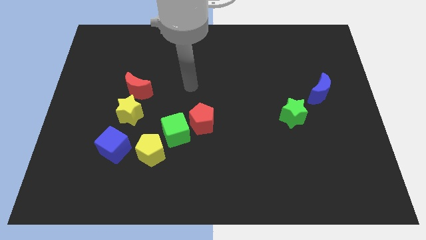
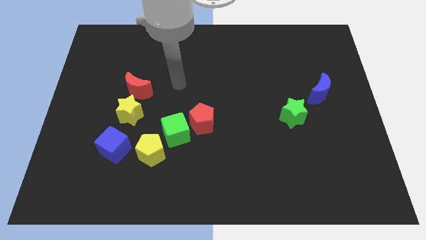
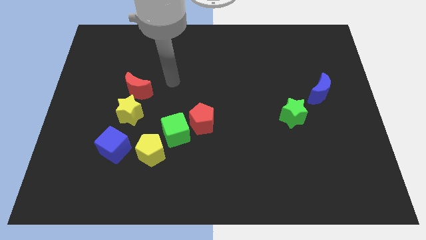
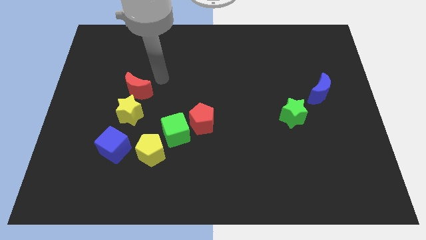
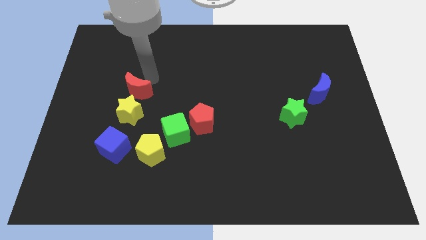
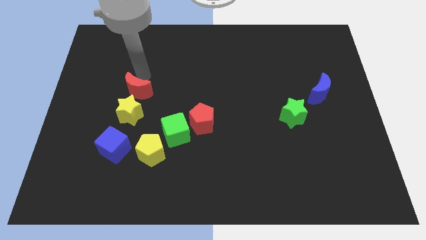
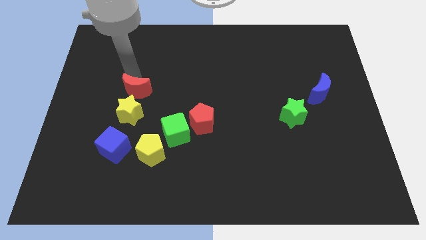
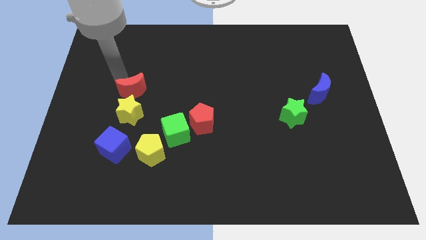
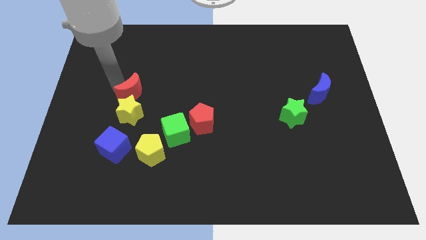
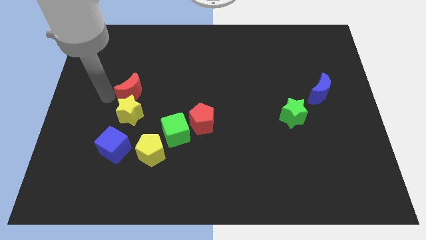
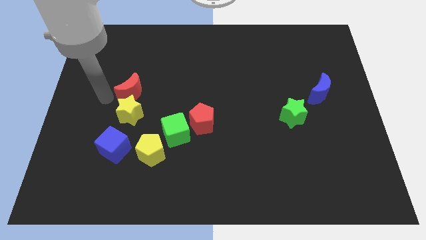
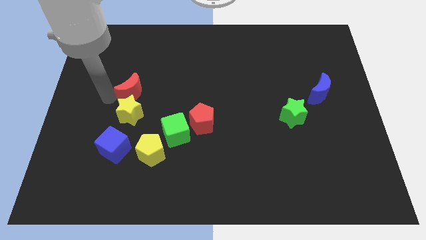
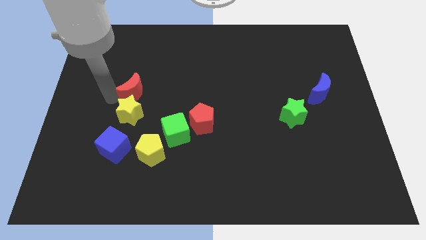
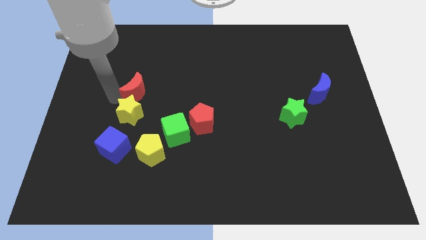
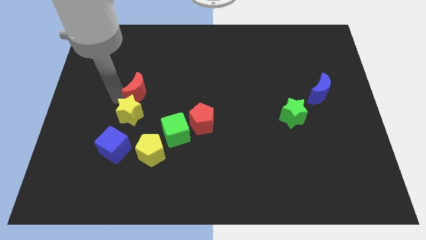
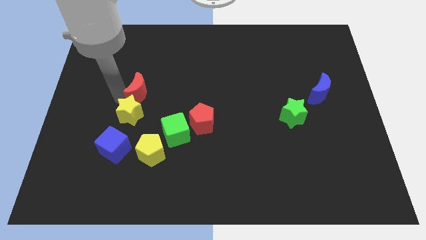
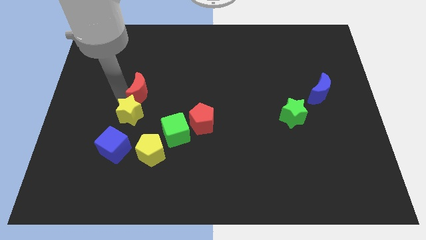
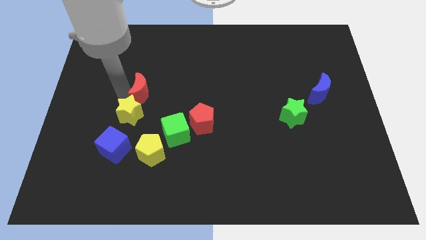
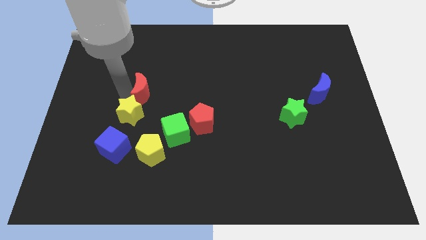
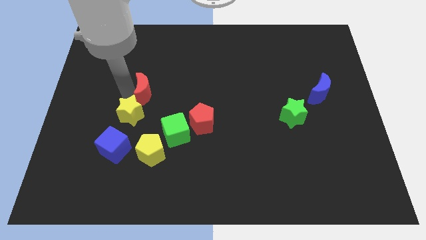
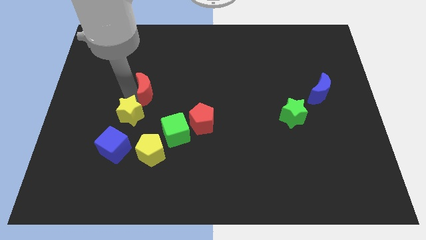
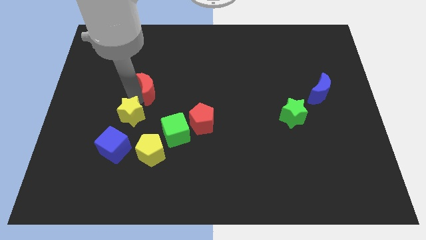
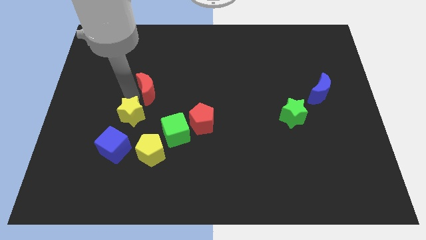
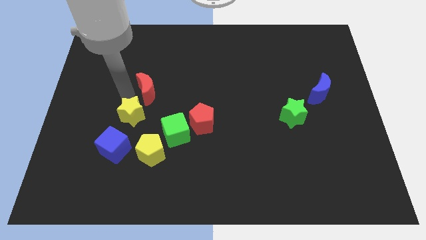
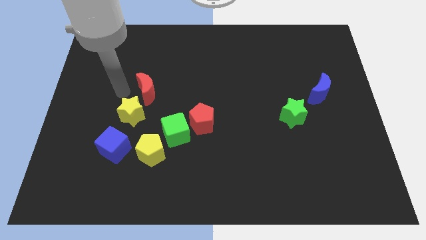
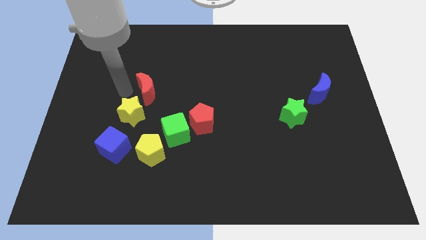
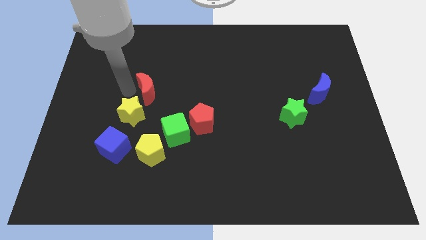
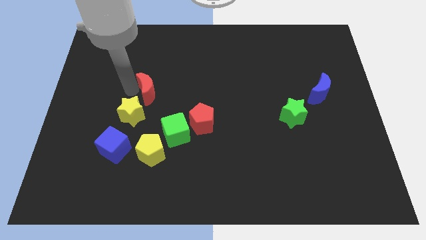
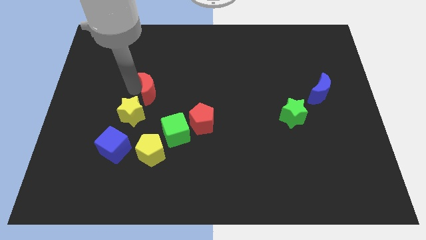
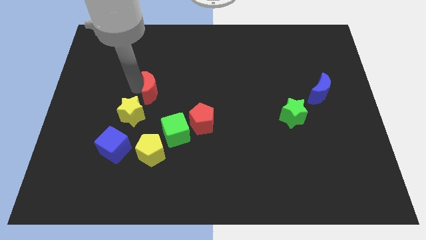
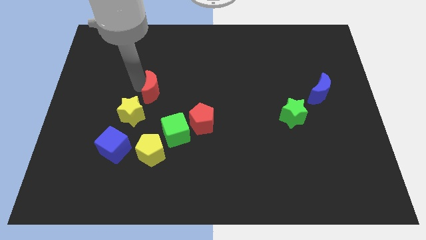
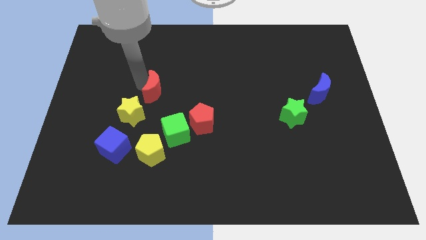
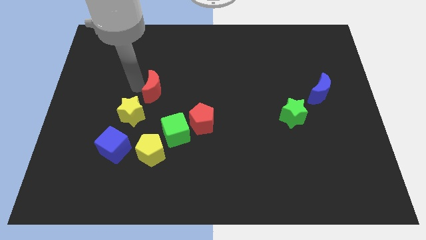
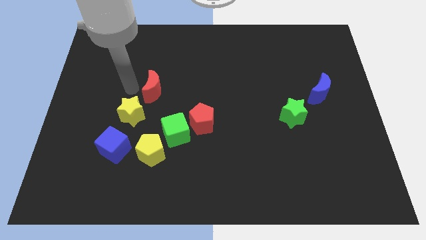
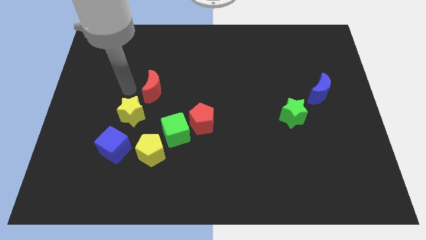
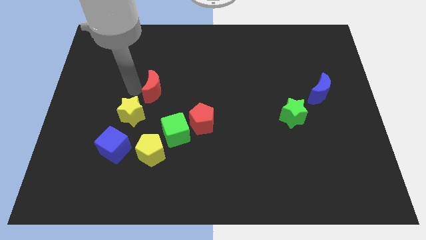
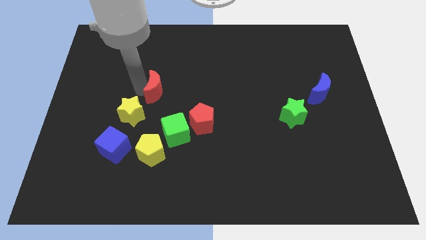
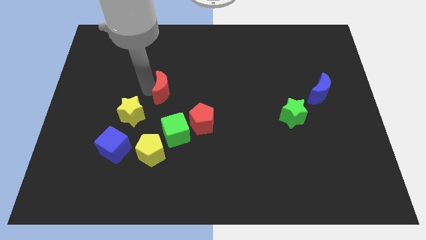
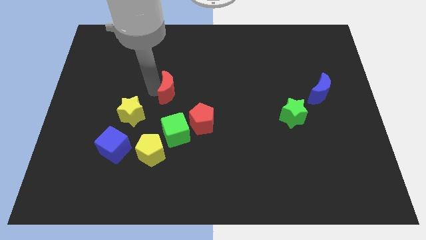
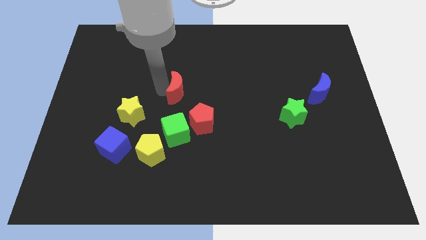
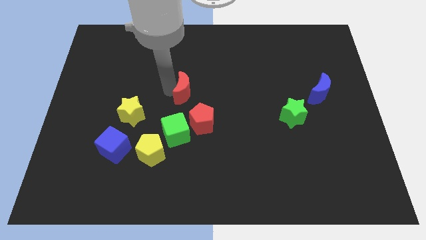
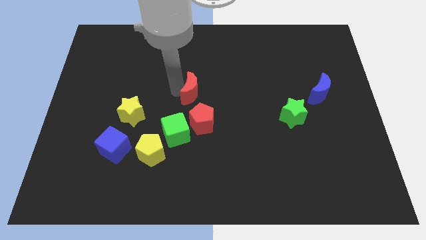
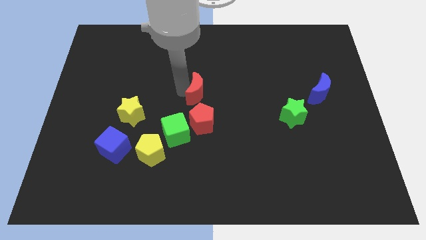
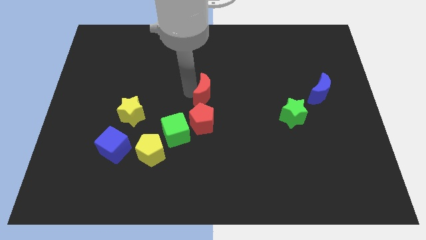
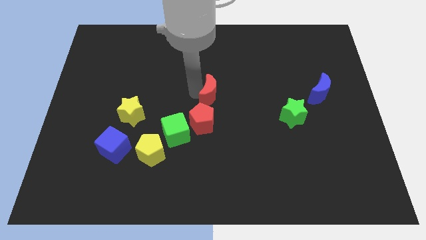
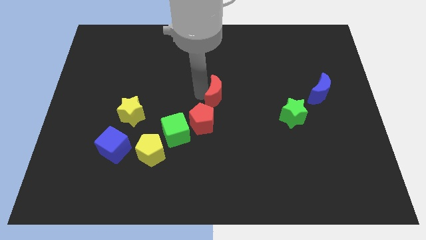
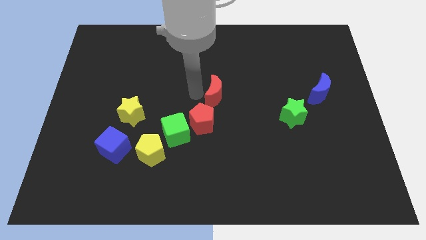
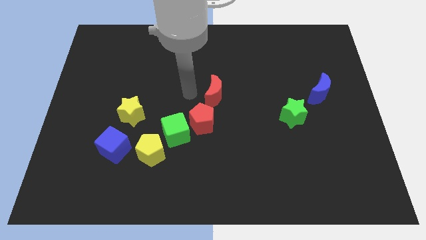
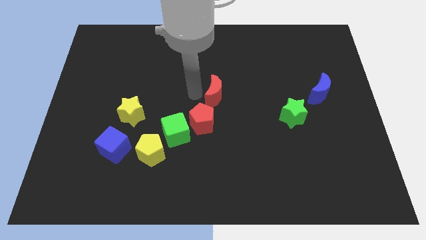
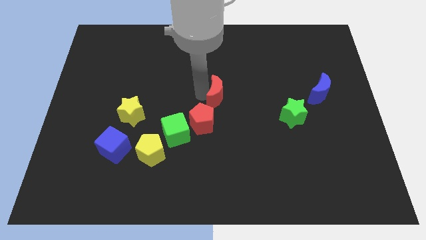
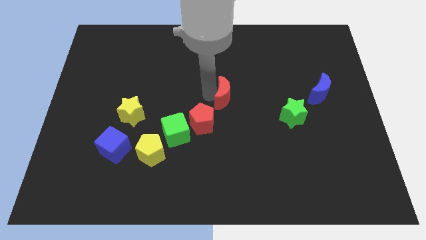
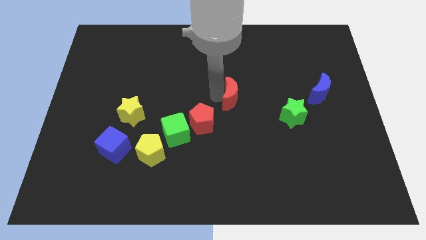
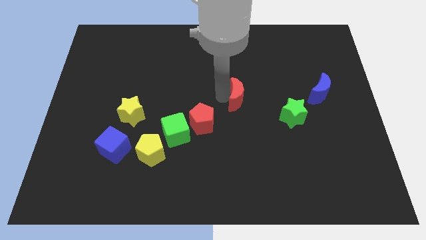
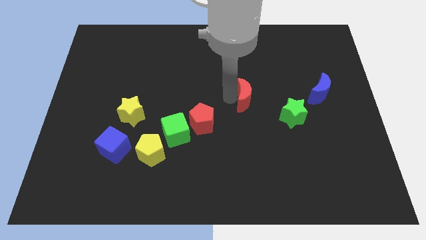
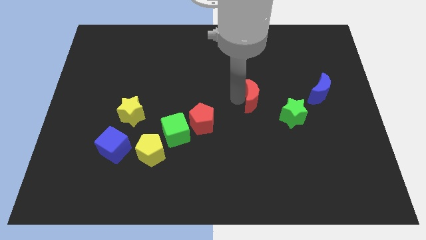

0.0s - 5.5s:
move the red moon to the top left side of the green star

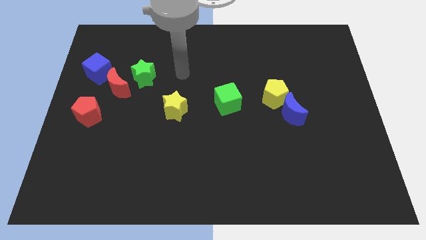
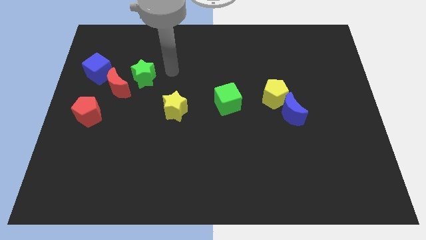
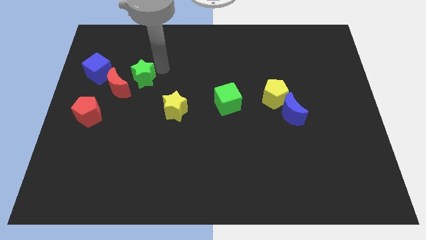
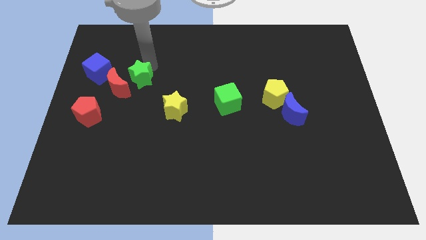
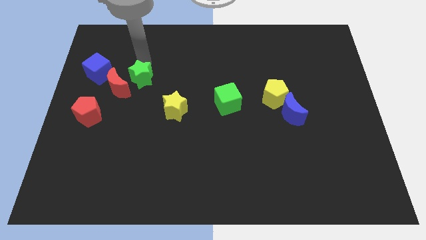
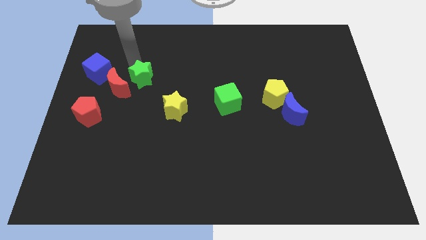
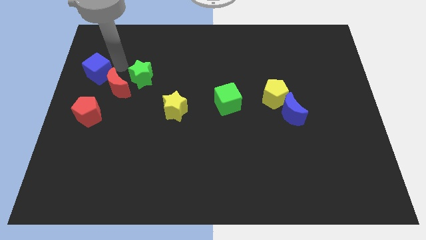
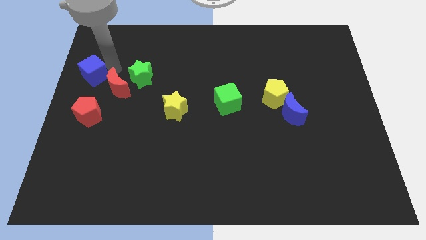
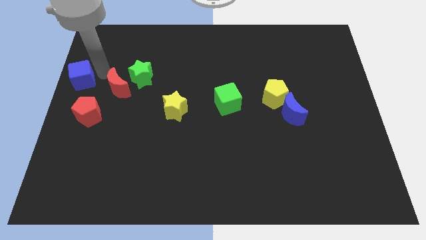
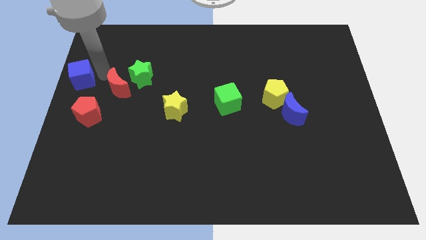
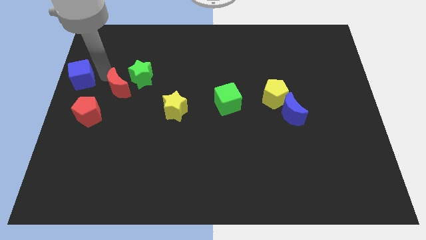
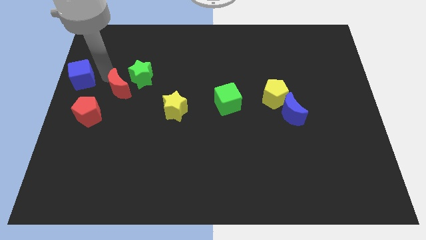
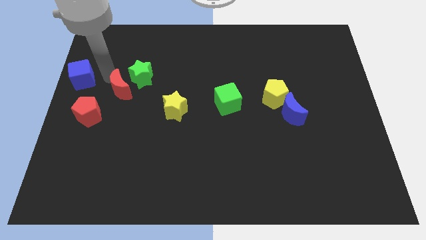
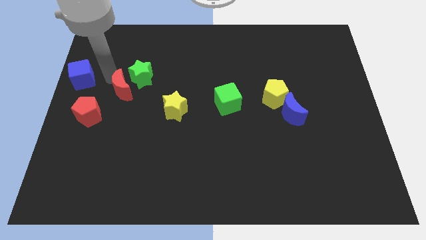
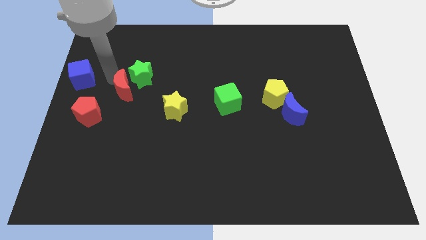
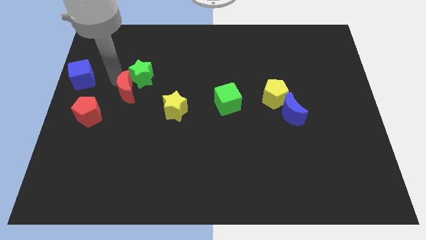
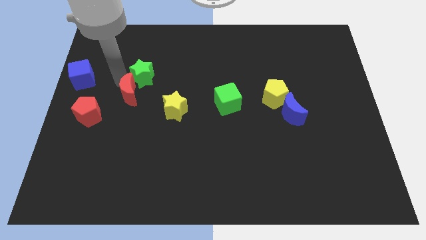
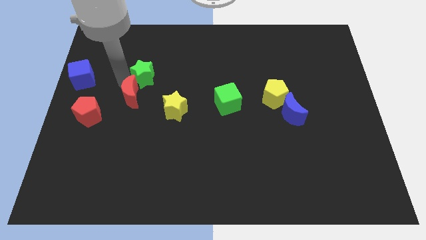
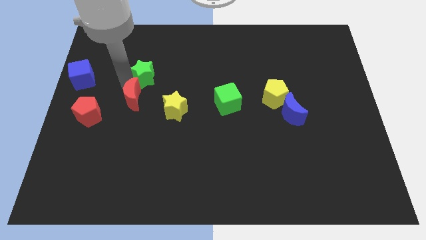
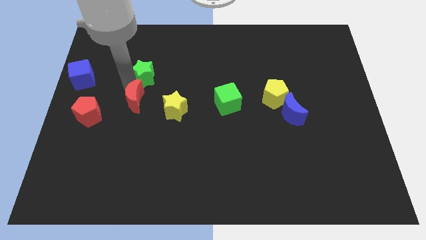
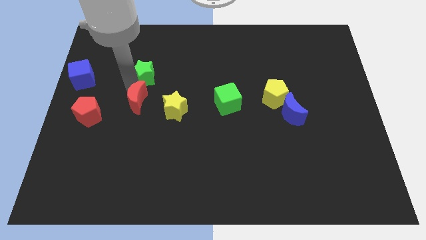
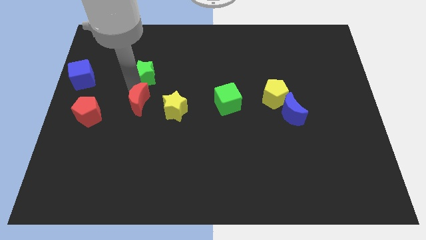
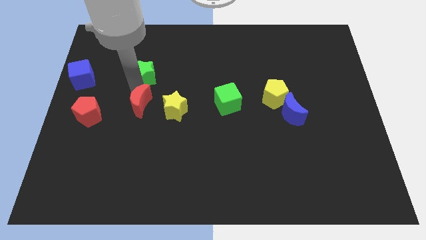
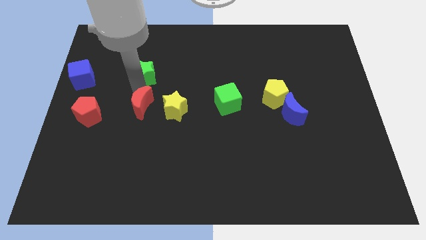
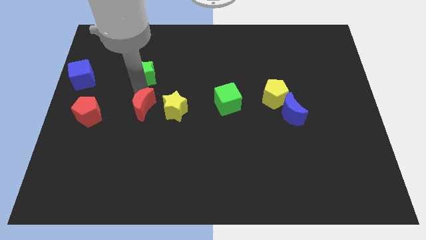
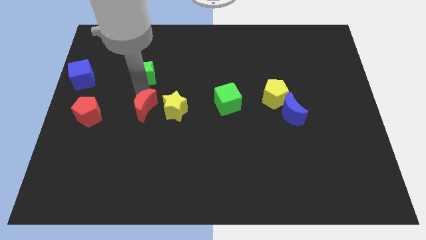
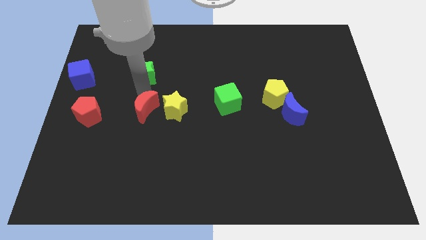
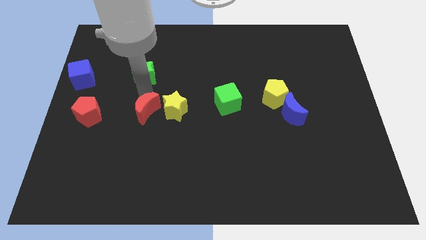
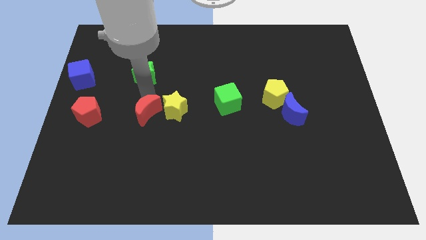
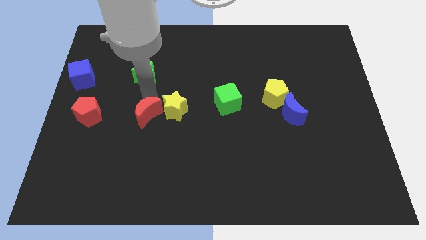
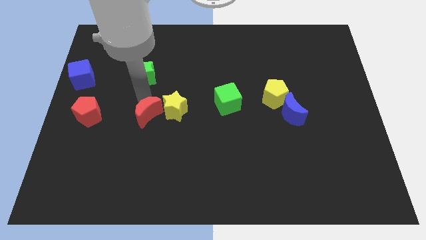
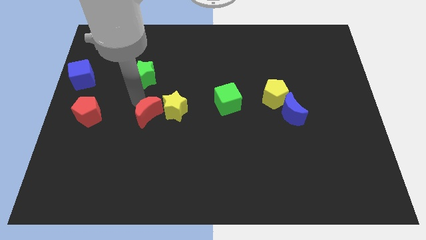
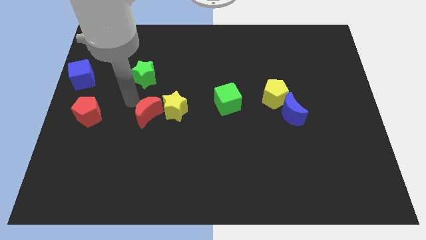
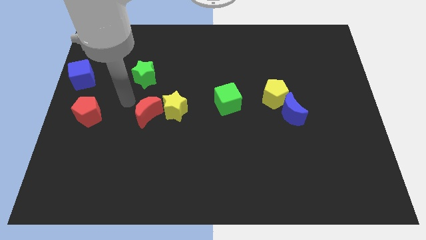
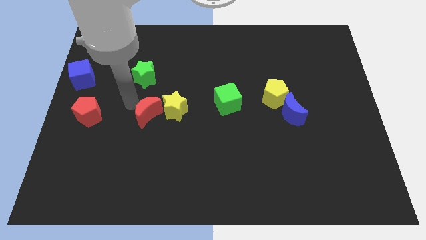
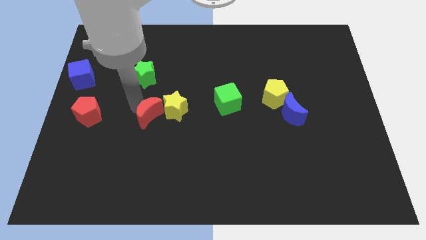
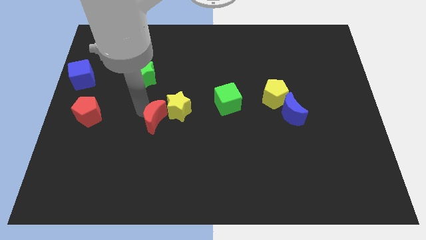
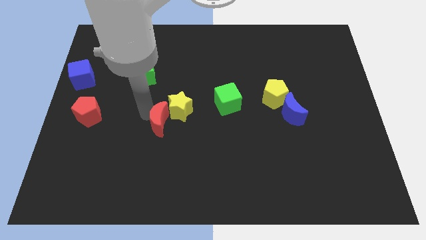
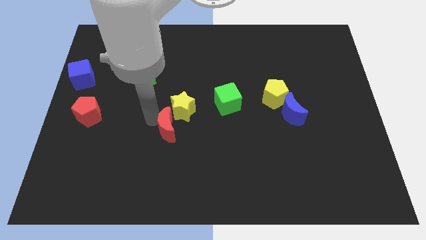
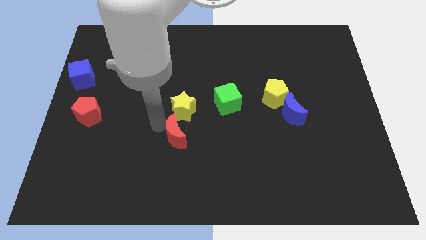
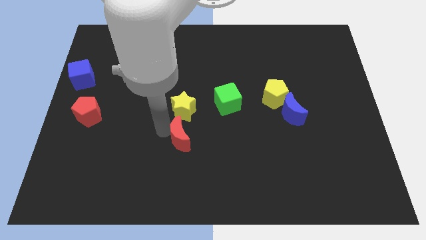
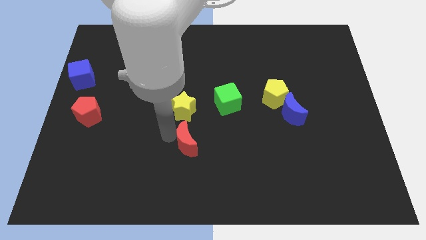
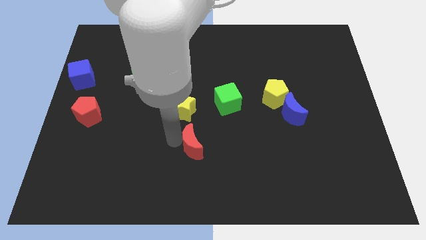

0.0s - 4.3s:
slide the red moon diagonally down and to the right of the yellow star
